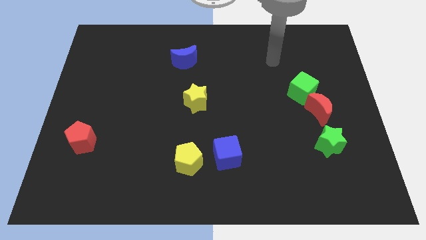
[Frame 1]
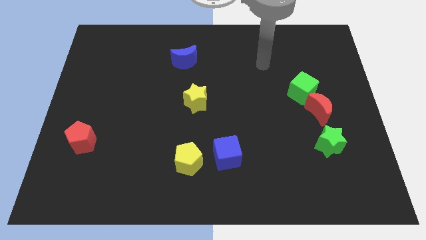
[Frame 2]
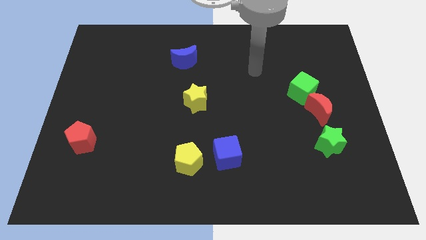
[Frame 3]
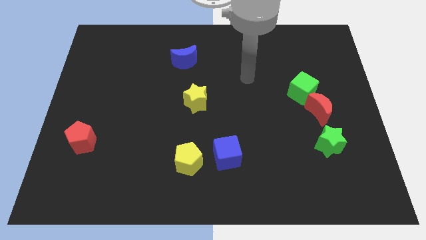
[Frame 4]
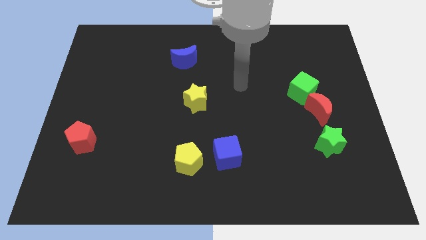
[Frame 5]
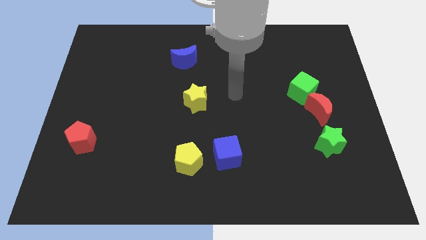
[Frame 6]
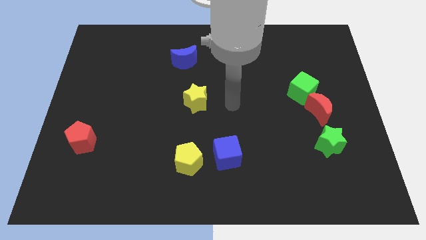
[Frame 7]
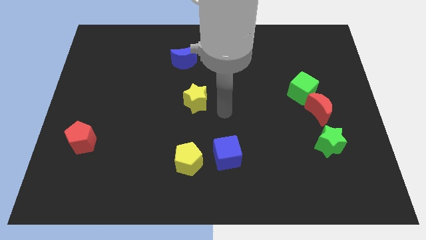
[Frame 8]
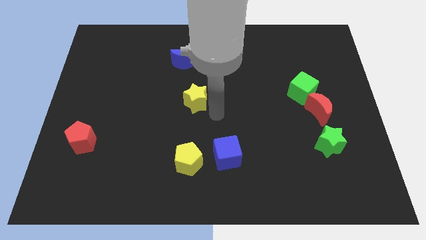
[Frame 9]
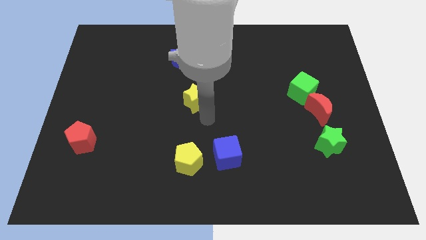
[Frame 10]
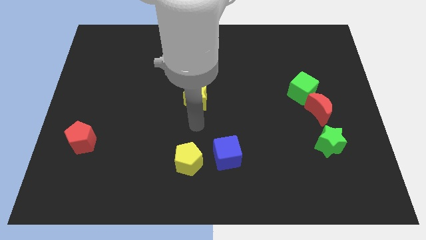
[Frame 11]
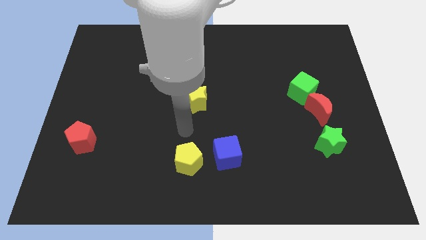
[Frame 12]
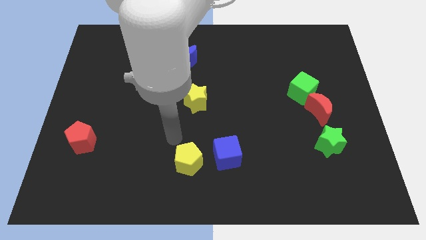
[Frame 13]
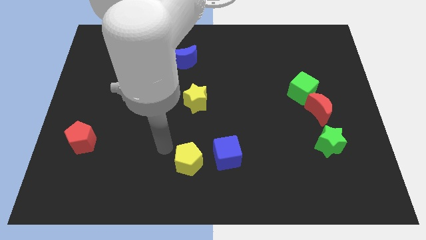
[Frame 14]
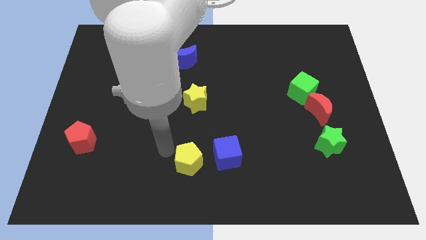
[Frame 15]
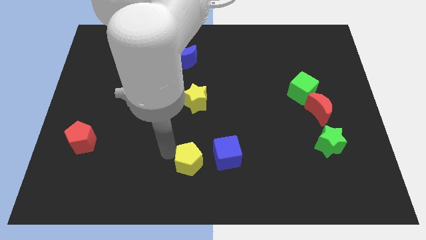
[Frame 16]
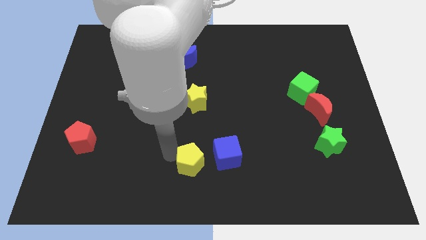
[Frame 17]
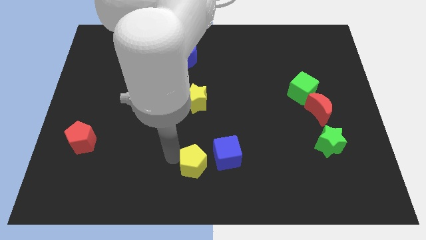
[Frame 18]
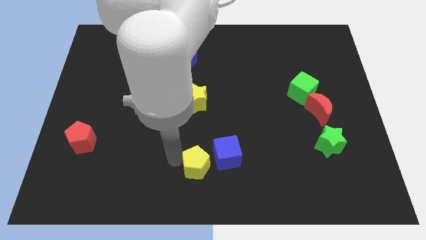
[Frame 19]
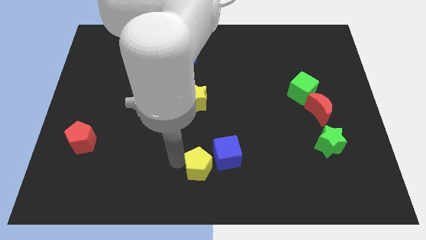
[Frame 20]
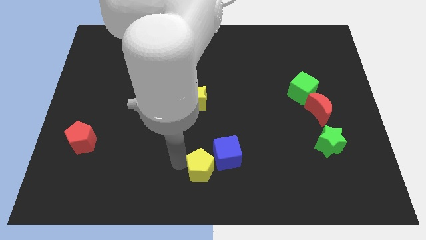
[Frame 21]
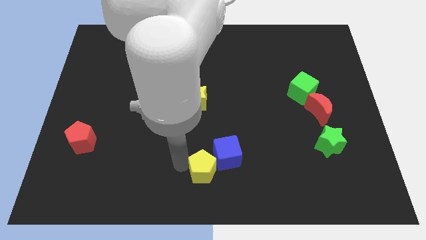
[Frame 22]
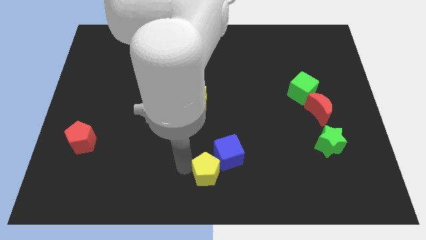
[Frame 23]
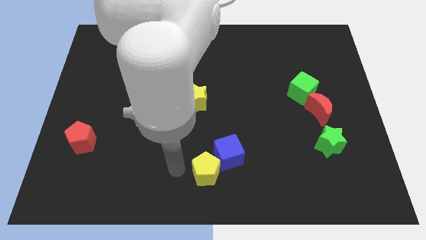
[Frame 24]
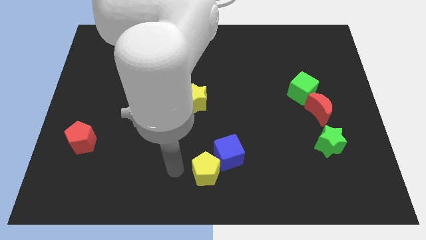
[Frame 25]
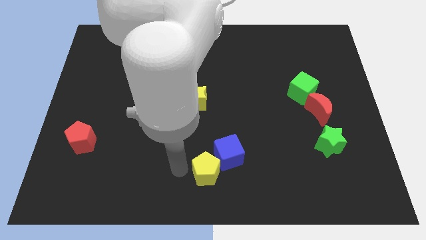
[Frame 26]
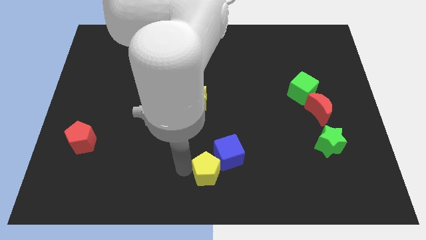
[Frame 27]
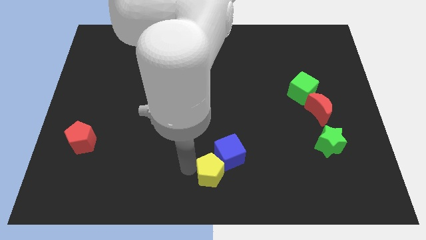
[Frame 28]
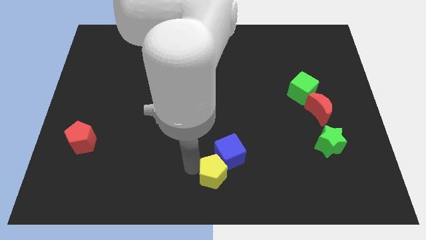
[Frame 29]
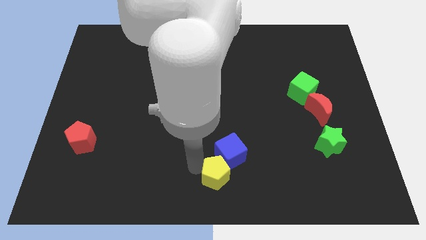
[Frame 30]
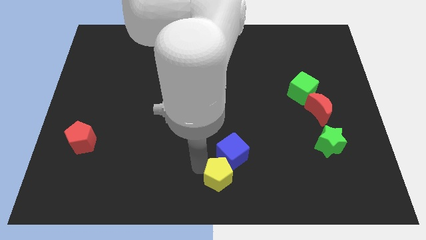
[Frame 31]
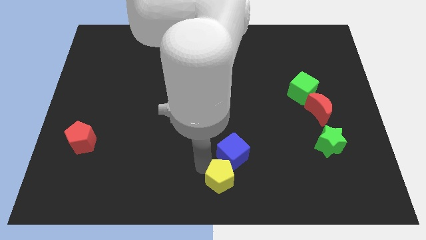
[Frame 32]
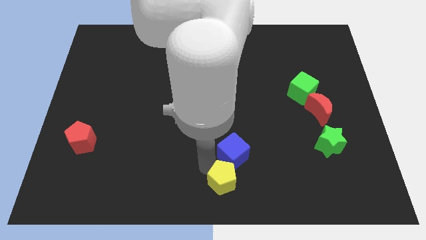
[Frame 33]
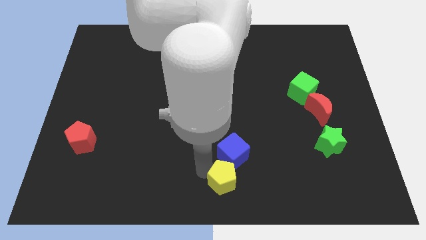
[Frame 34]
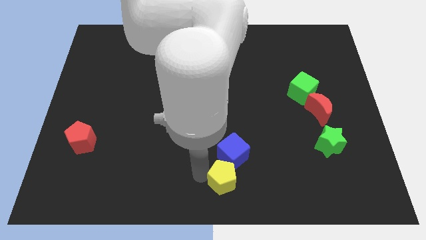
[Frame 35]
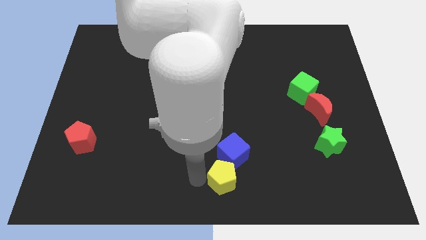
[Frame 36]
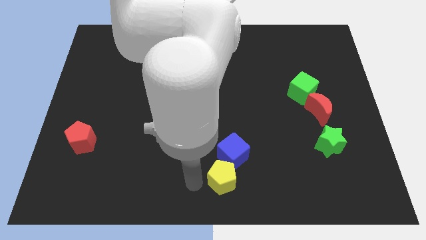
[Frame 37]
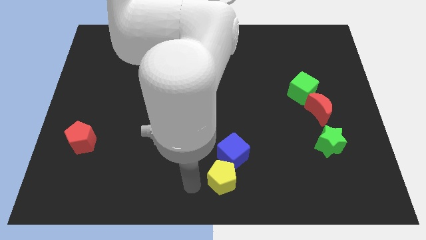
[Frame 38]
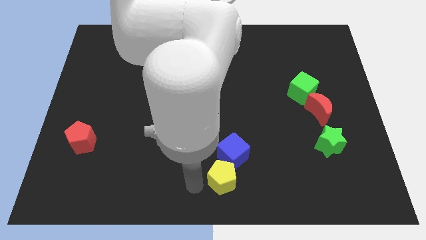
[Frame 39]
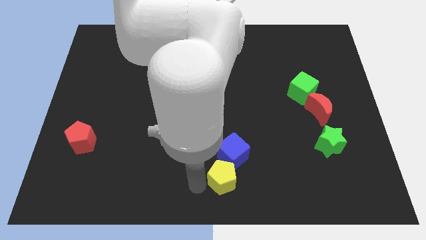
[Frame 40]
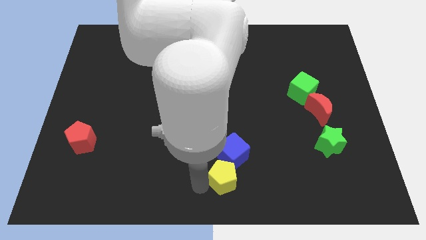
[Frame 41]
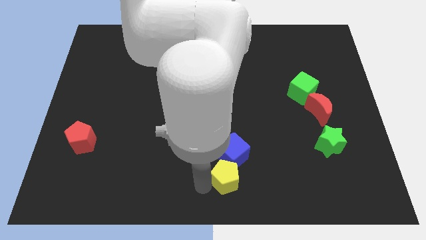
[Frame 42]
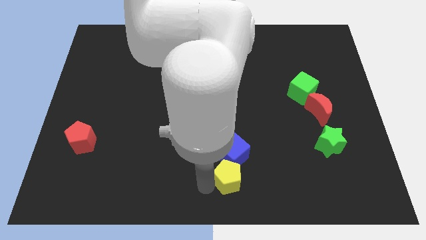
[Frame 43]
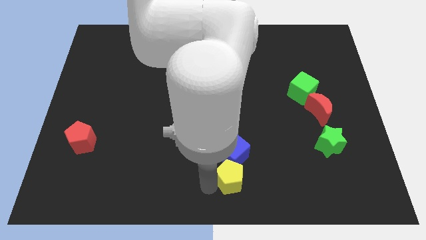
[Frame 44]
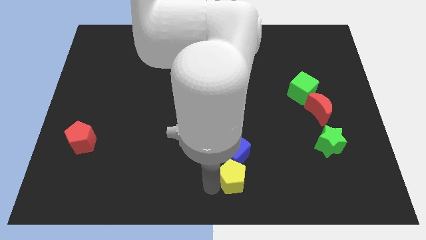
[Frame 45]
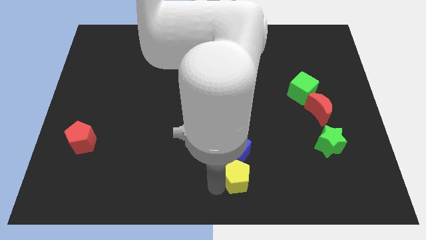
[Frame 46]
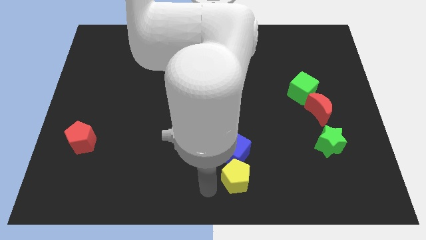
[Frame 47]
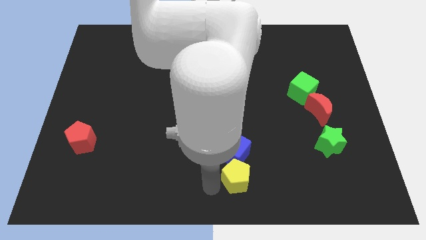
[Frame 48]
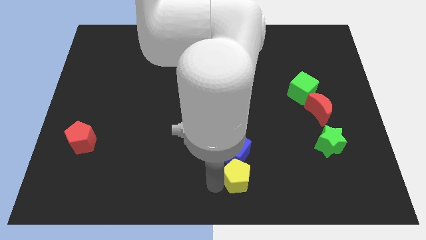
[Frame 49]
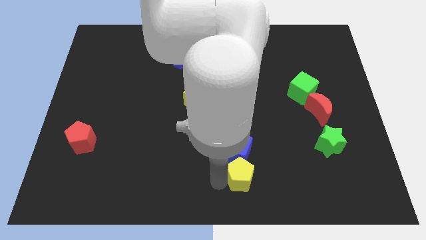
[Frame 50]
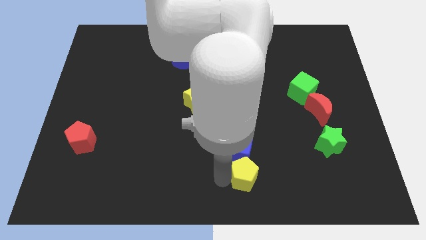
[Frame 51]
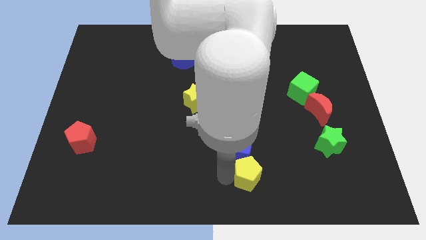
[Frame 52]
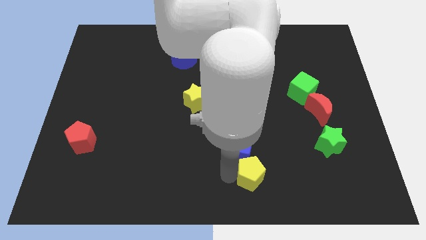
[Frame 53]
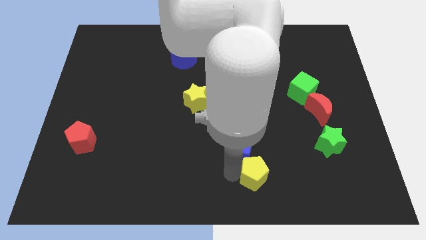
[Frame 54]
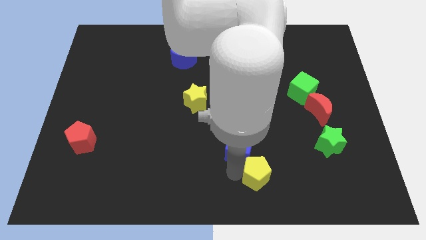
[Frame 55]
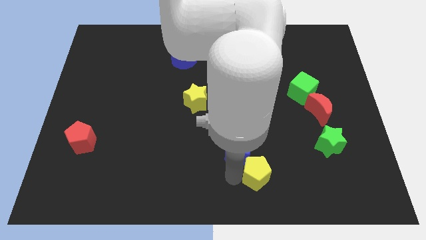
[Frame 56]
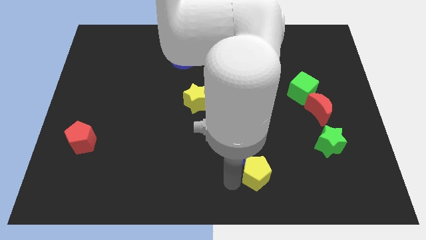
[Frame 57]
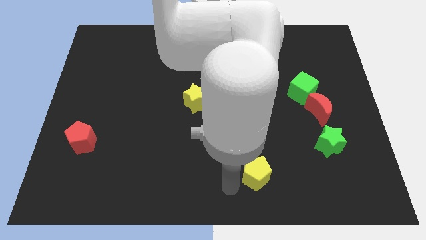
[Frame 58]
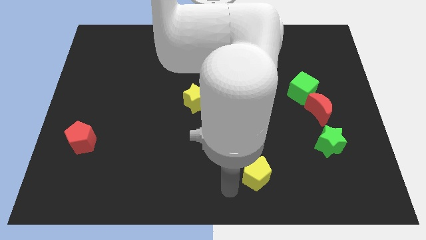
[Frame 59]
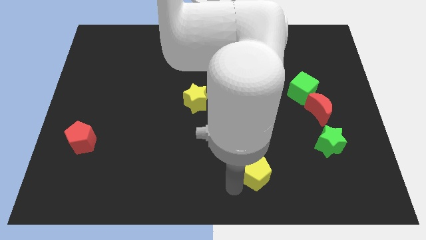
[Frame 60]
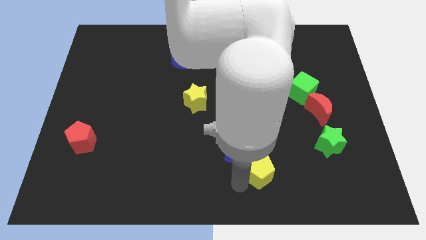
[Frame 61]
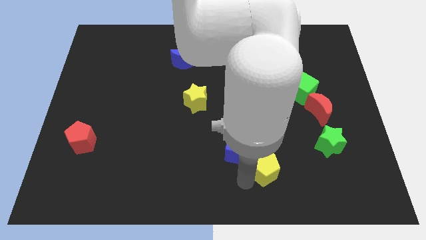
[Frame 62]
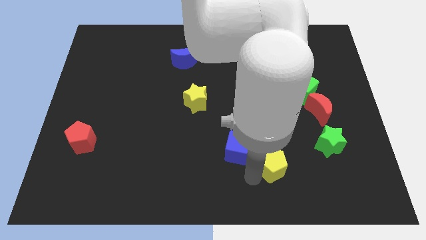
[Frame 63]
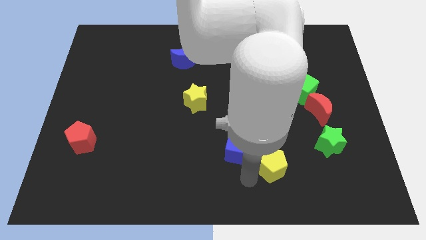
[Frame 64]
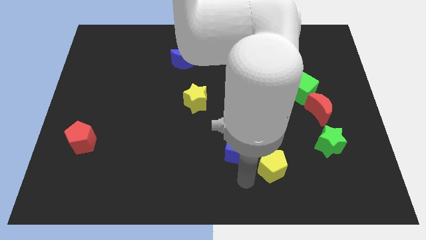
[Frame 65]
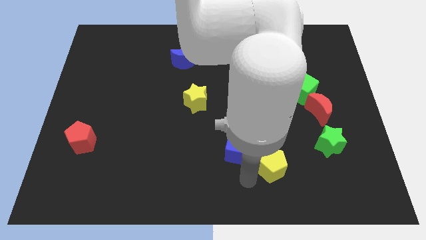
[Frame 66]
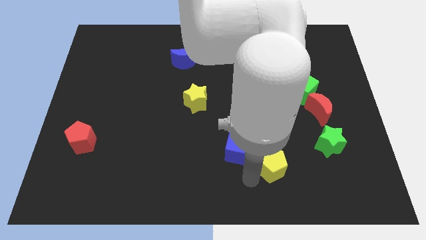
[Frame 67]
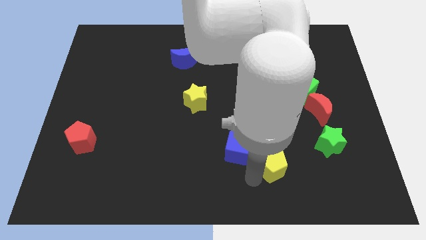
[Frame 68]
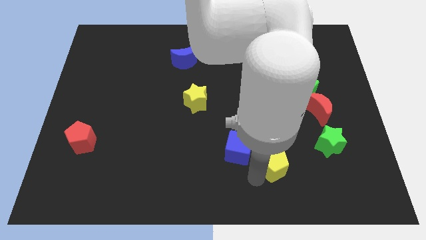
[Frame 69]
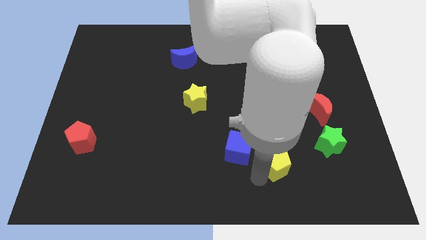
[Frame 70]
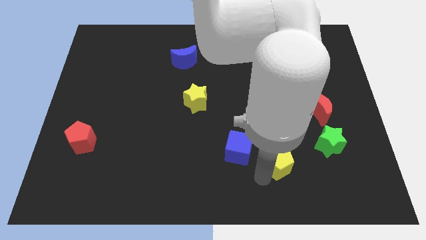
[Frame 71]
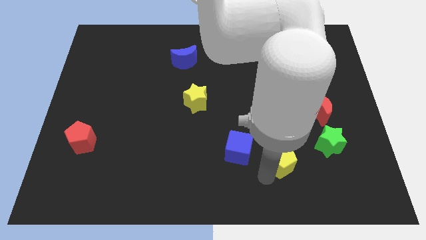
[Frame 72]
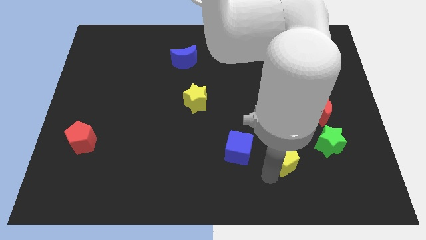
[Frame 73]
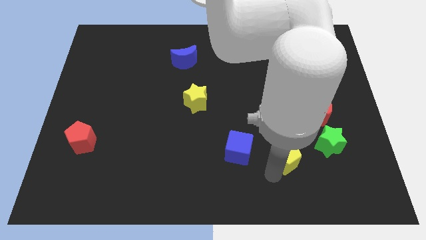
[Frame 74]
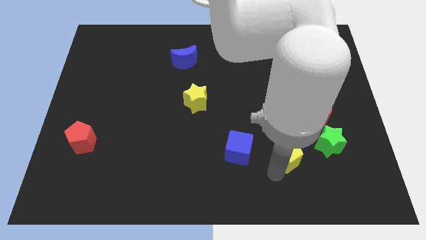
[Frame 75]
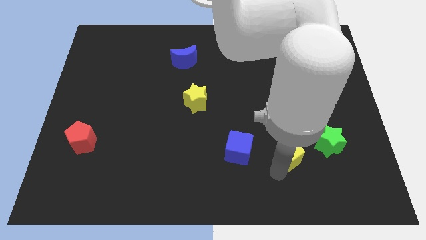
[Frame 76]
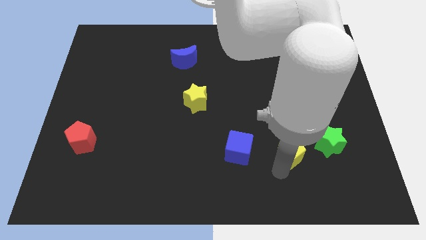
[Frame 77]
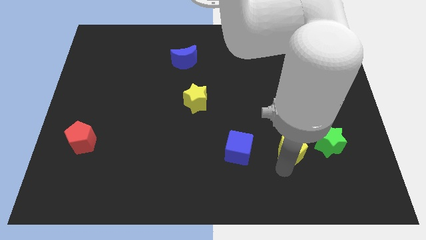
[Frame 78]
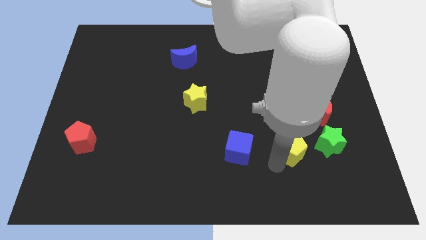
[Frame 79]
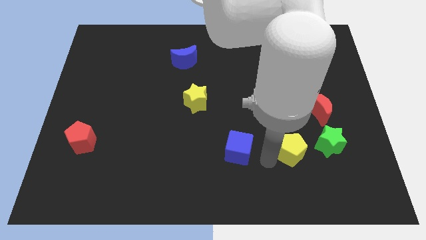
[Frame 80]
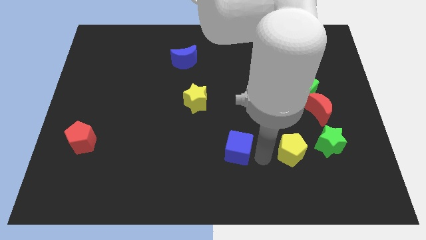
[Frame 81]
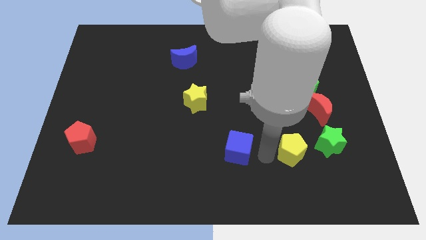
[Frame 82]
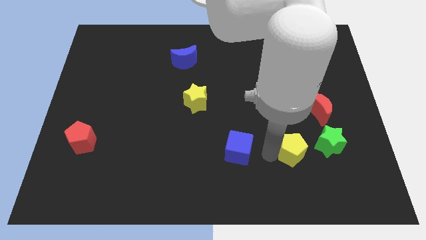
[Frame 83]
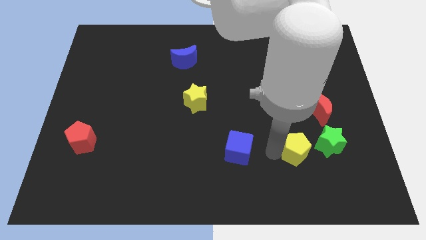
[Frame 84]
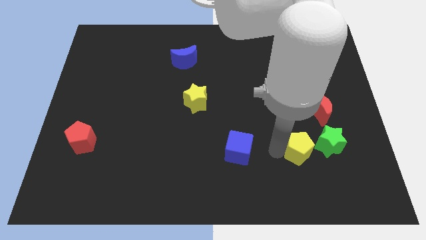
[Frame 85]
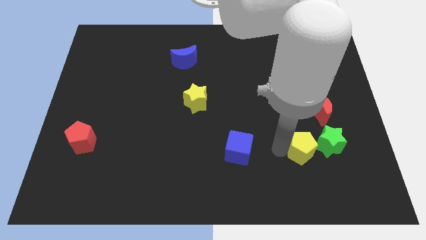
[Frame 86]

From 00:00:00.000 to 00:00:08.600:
put the yellow pentagon close to the green star
